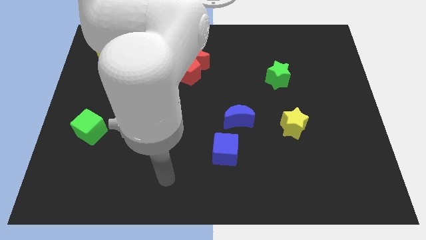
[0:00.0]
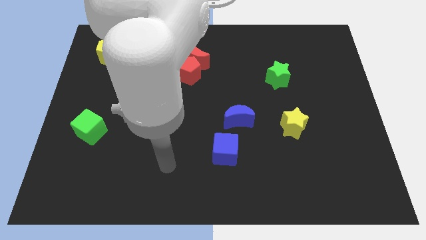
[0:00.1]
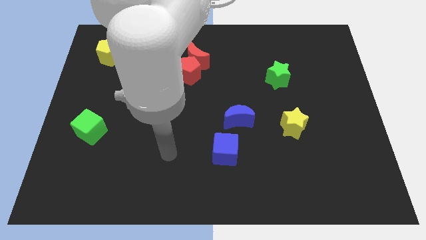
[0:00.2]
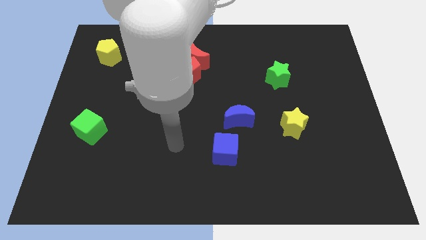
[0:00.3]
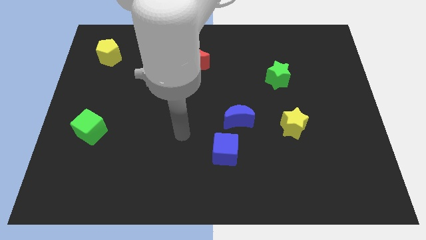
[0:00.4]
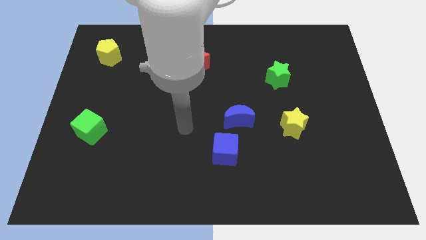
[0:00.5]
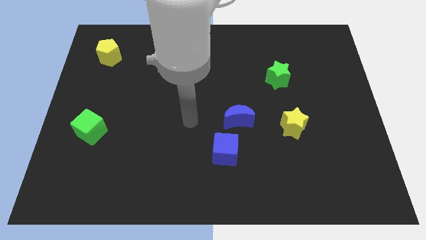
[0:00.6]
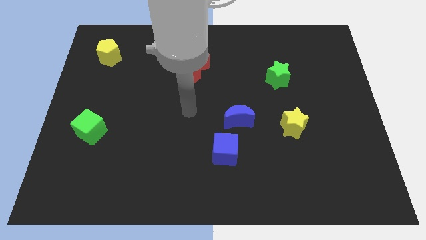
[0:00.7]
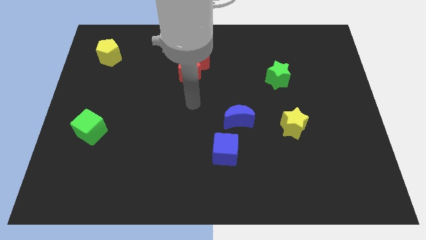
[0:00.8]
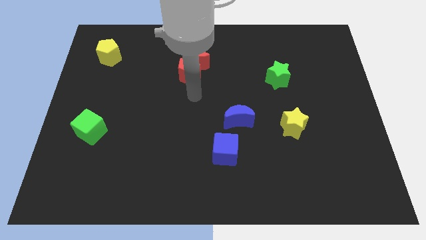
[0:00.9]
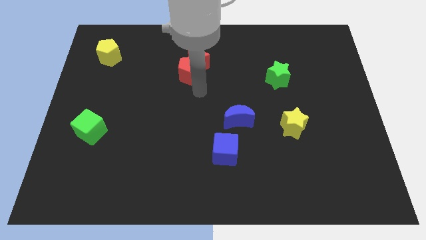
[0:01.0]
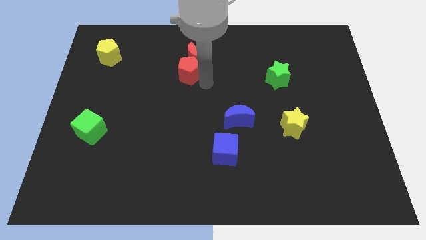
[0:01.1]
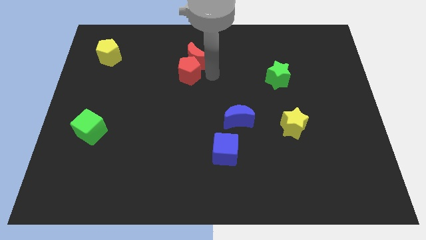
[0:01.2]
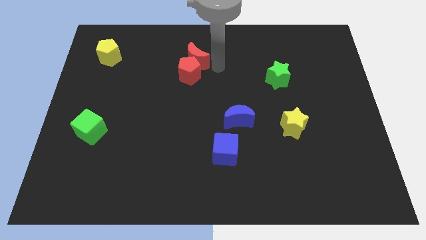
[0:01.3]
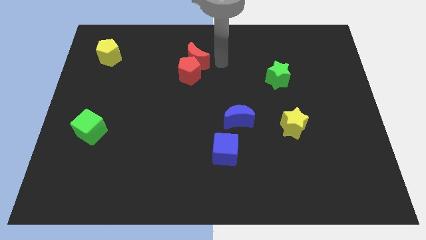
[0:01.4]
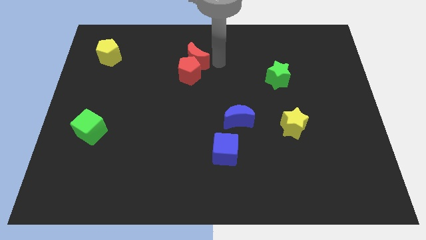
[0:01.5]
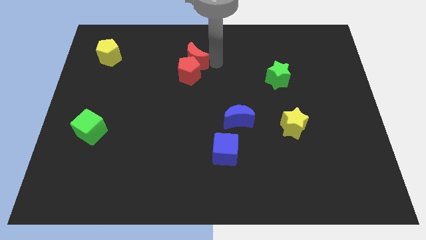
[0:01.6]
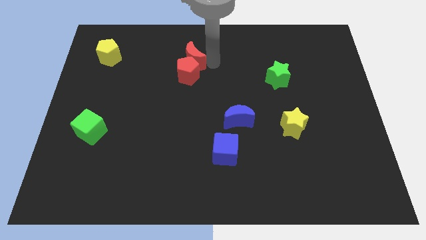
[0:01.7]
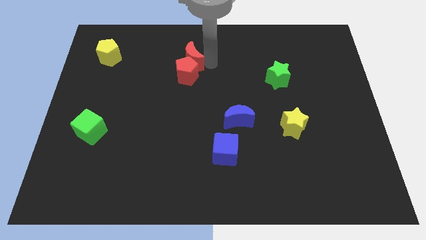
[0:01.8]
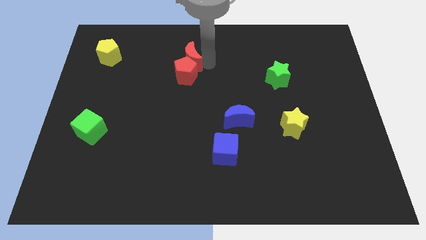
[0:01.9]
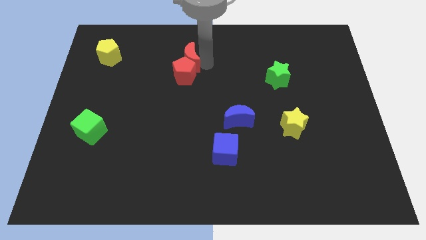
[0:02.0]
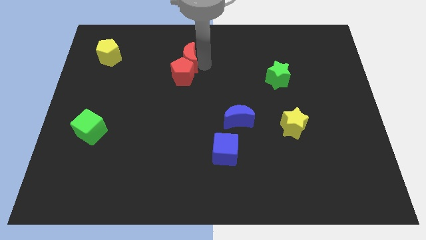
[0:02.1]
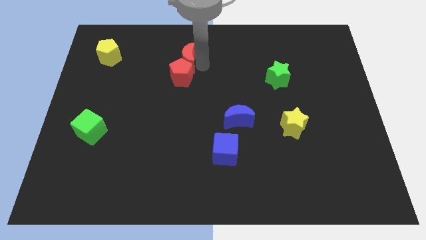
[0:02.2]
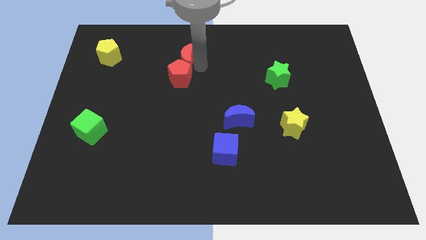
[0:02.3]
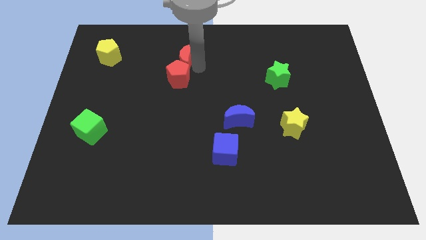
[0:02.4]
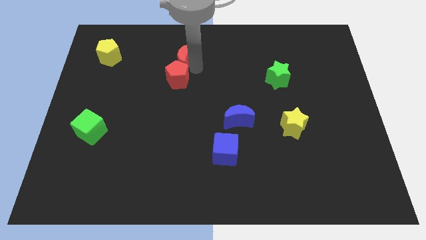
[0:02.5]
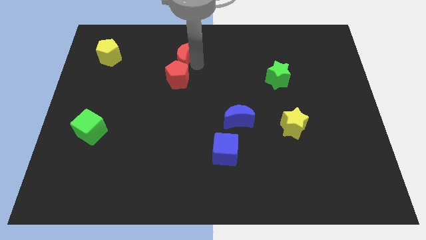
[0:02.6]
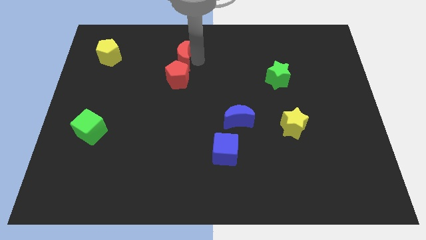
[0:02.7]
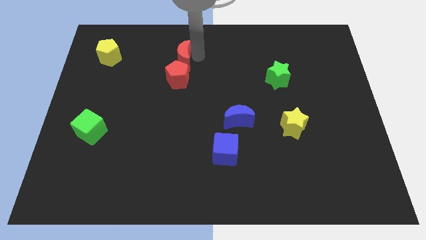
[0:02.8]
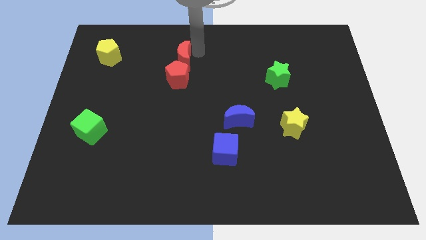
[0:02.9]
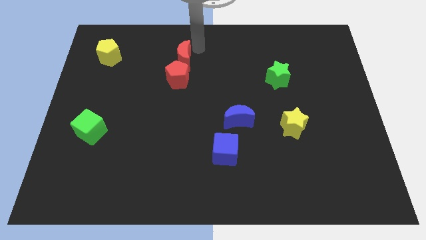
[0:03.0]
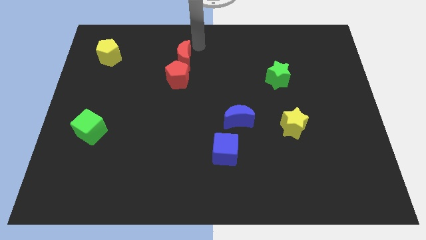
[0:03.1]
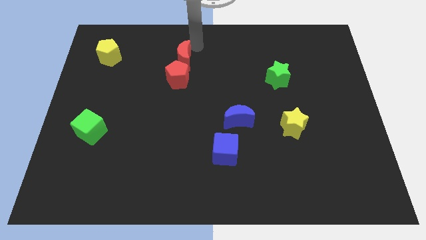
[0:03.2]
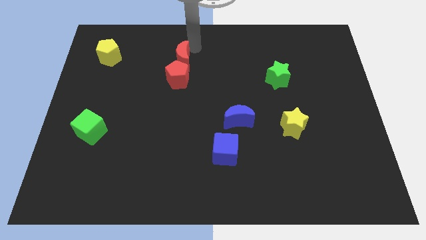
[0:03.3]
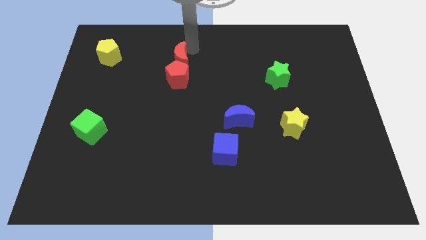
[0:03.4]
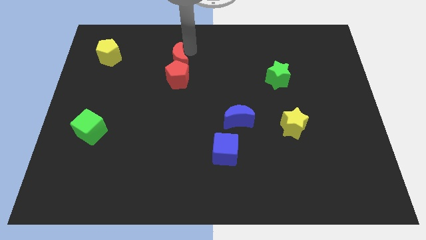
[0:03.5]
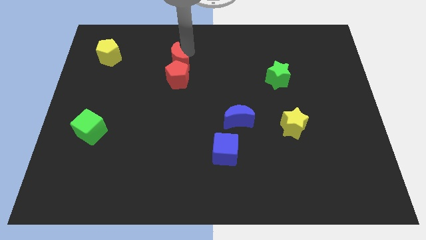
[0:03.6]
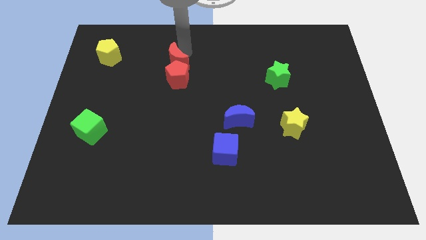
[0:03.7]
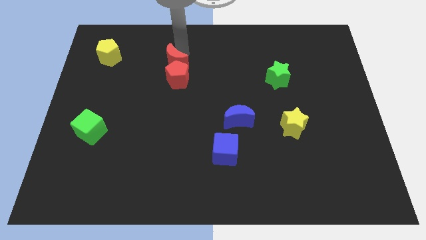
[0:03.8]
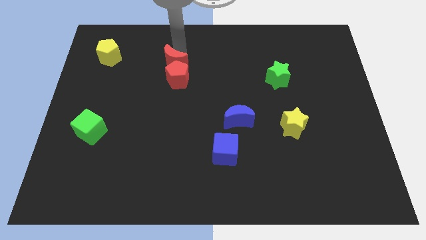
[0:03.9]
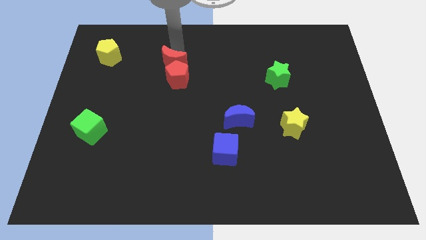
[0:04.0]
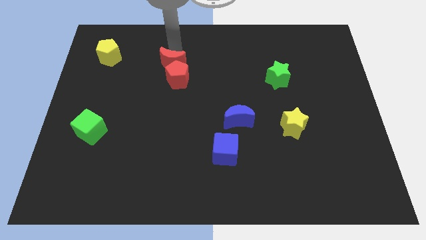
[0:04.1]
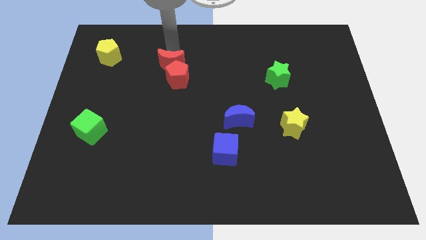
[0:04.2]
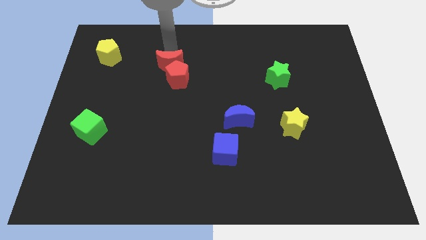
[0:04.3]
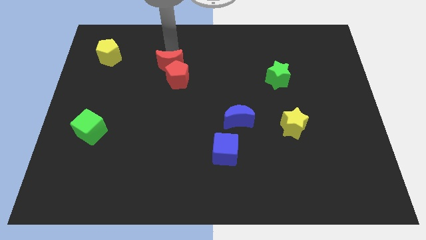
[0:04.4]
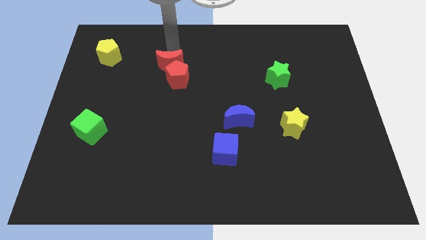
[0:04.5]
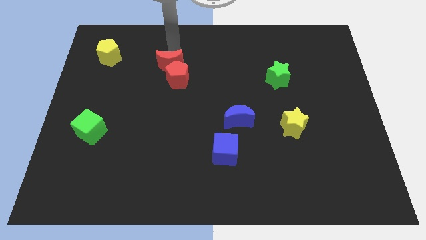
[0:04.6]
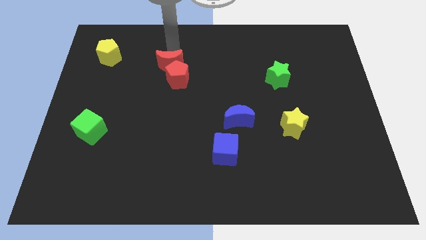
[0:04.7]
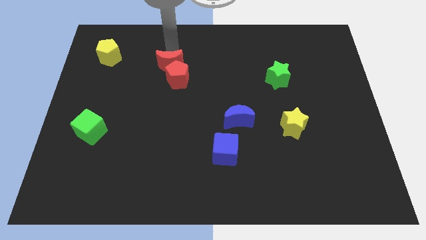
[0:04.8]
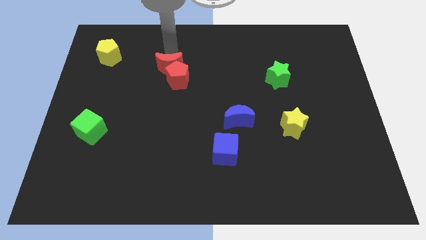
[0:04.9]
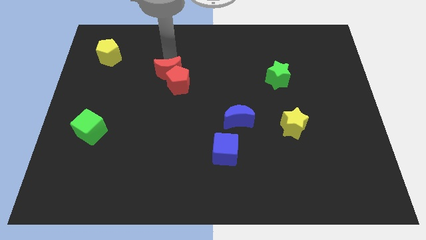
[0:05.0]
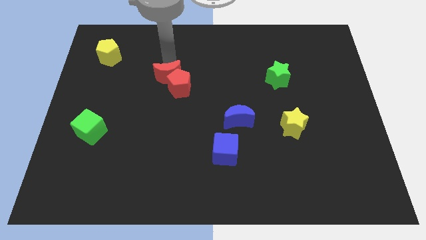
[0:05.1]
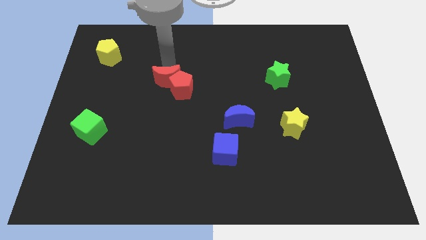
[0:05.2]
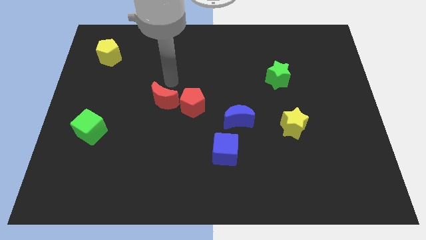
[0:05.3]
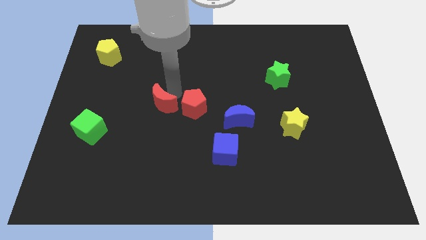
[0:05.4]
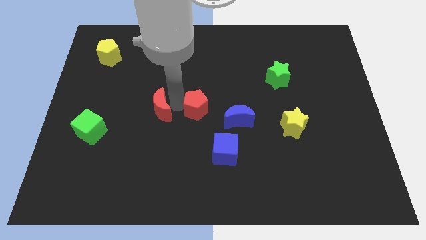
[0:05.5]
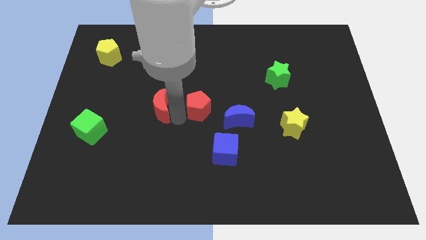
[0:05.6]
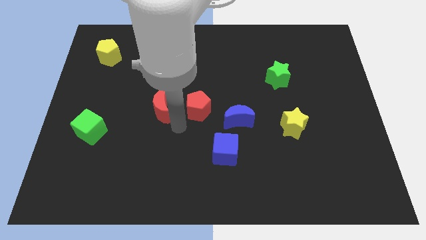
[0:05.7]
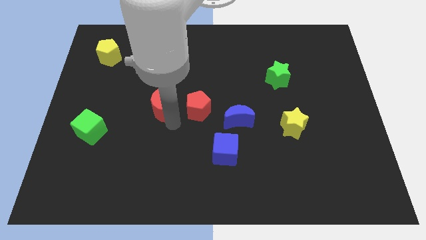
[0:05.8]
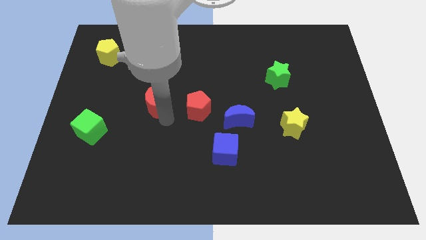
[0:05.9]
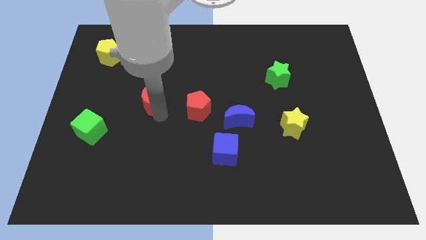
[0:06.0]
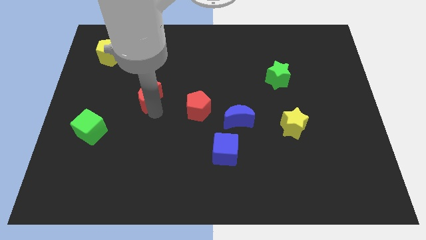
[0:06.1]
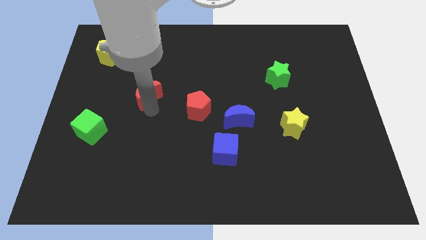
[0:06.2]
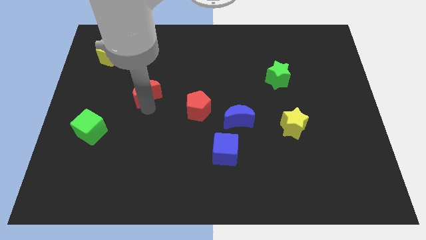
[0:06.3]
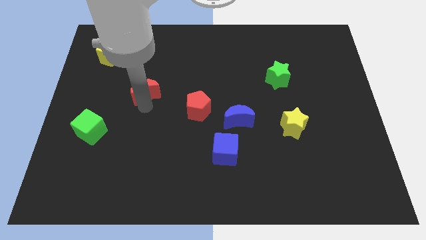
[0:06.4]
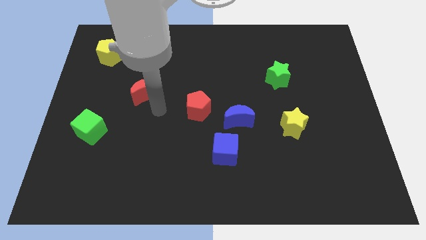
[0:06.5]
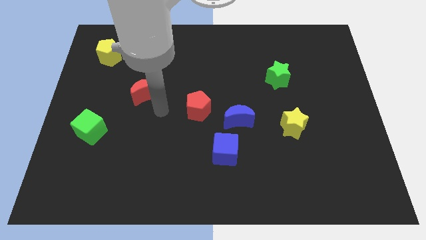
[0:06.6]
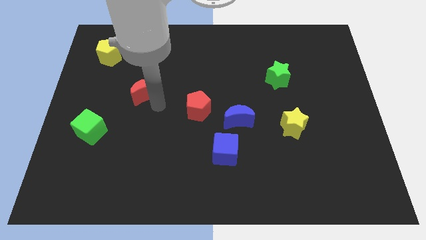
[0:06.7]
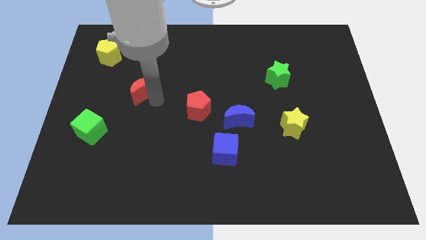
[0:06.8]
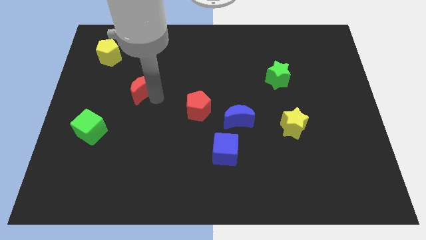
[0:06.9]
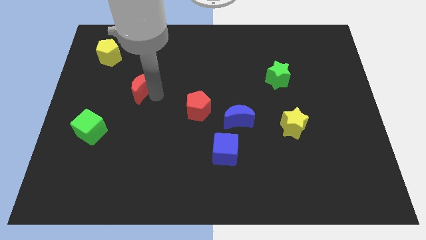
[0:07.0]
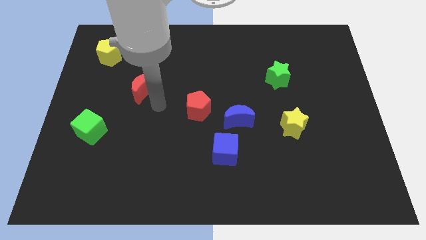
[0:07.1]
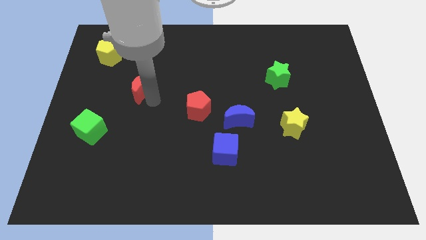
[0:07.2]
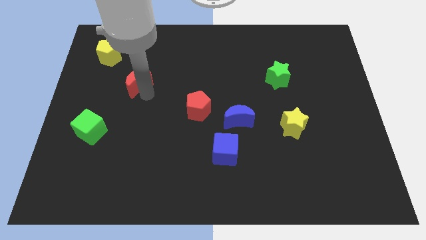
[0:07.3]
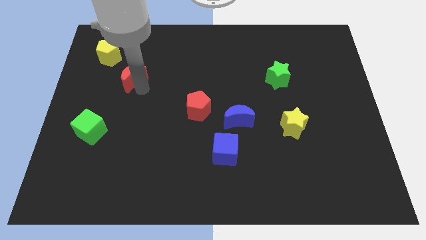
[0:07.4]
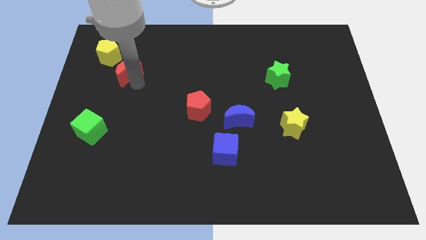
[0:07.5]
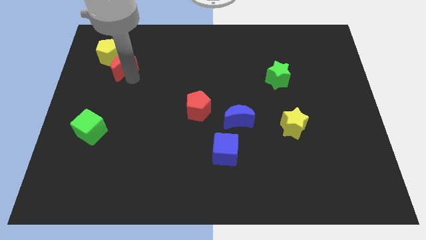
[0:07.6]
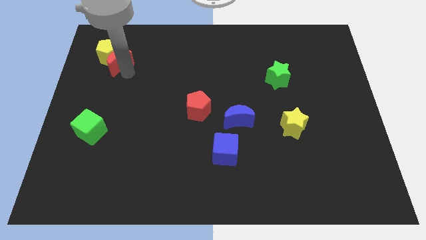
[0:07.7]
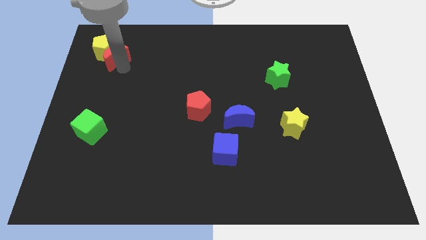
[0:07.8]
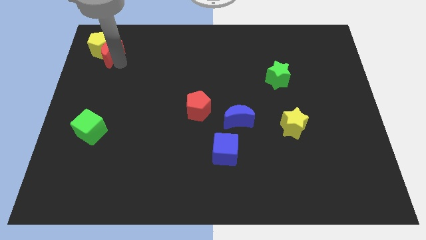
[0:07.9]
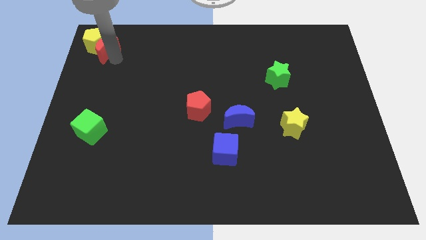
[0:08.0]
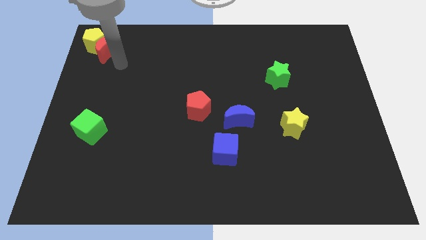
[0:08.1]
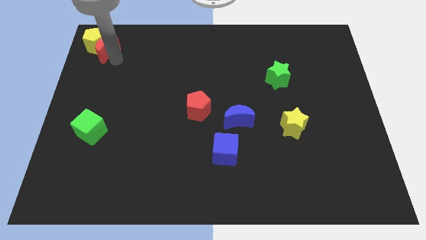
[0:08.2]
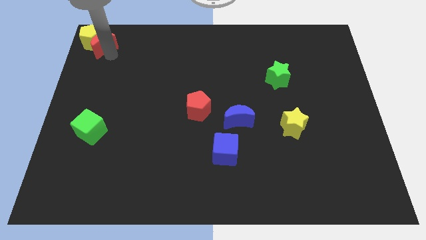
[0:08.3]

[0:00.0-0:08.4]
move the red moon to the top left
